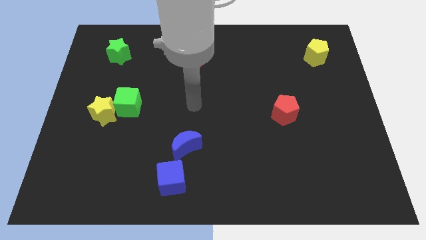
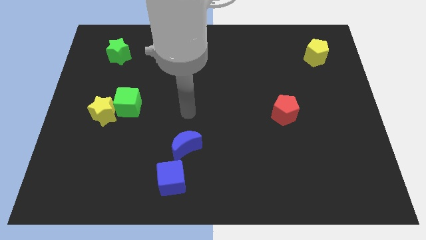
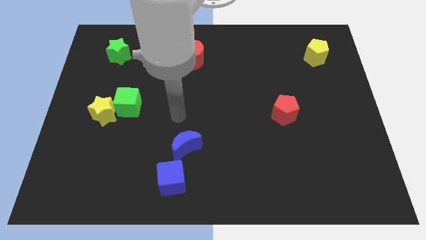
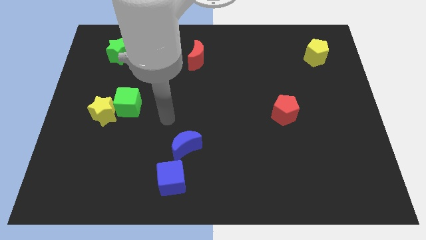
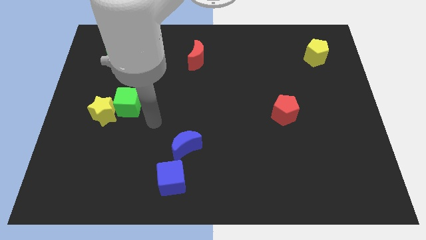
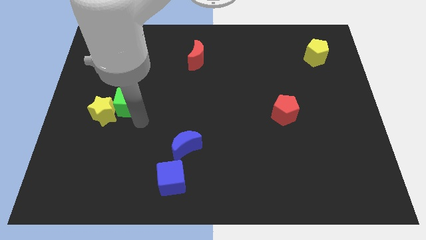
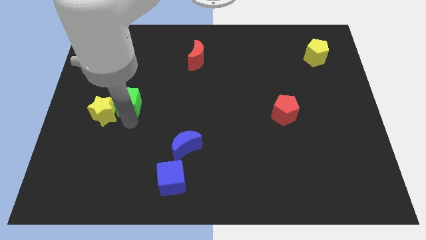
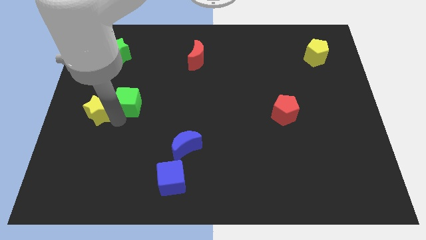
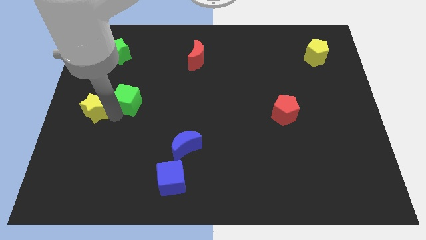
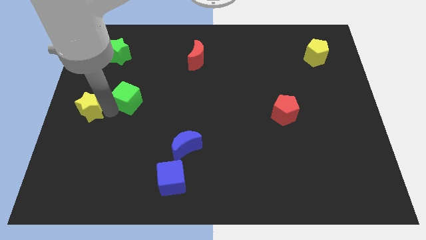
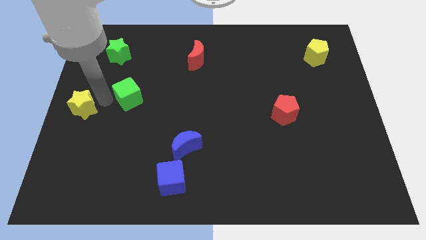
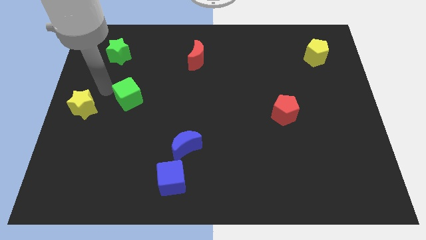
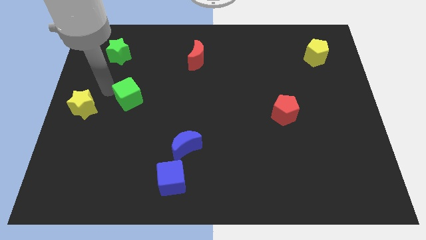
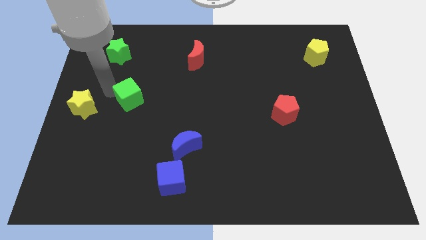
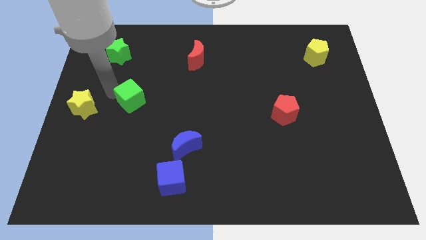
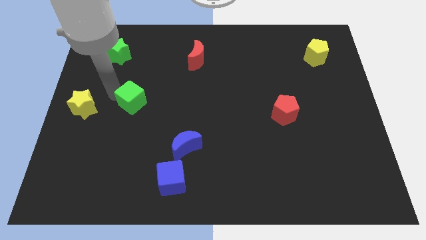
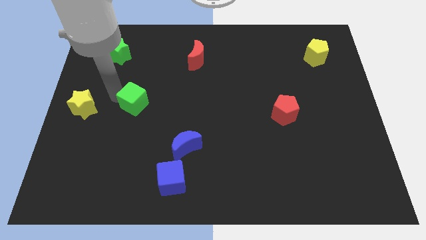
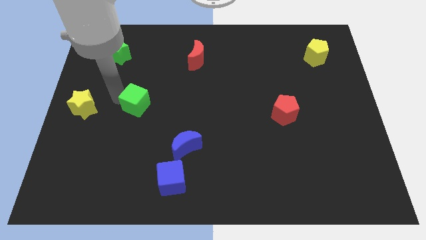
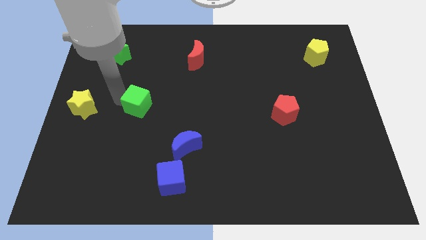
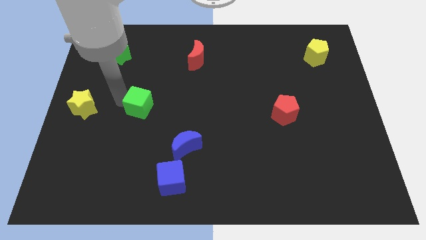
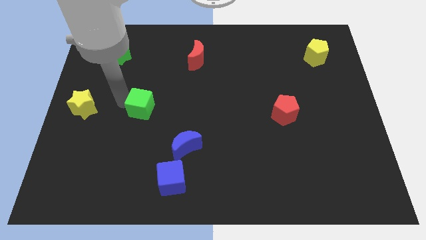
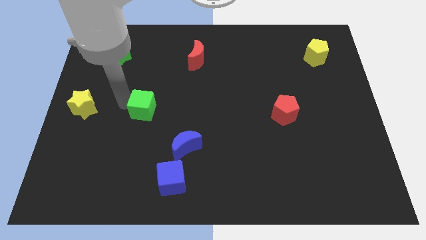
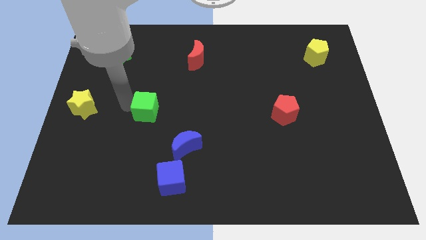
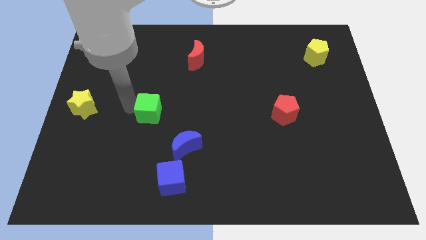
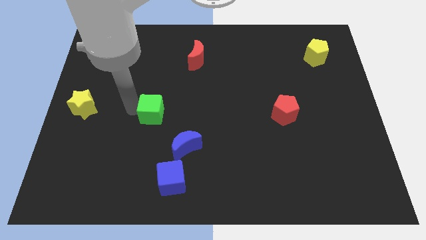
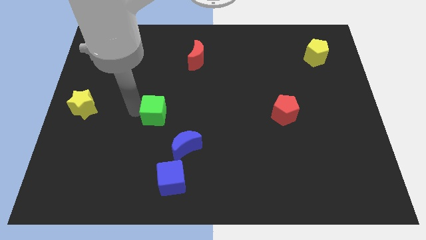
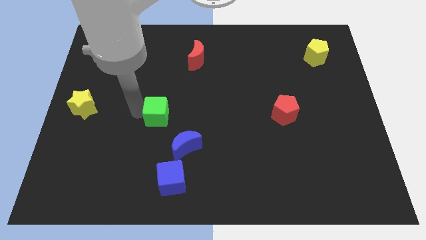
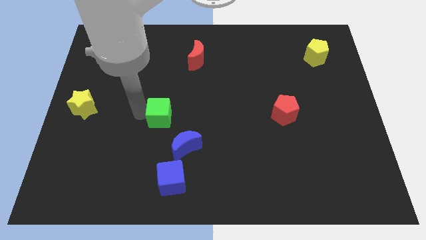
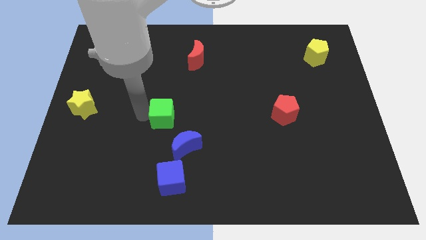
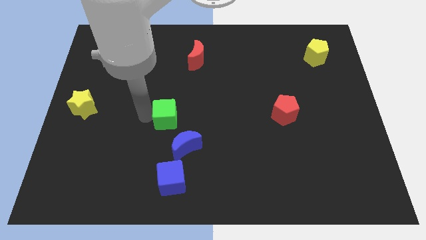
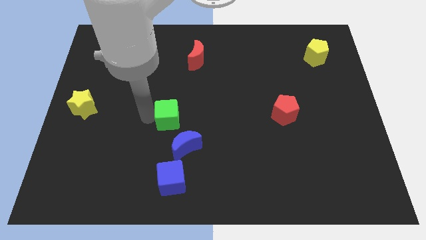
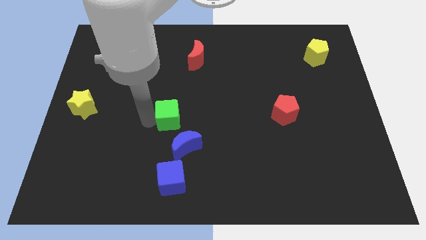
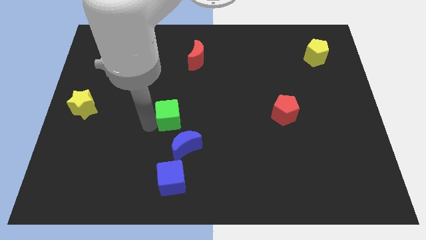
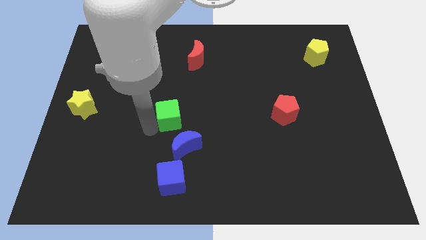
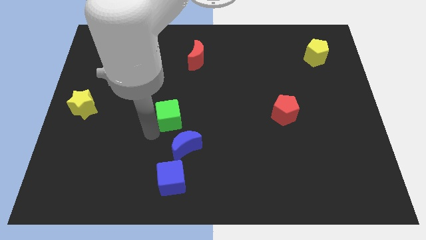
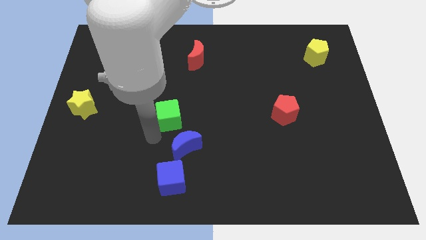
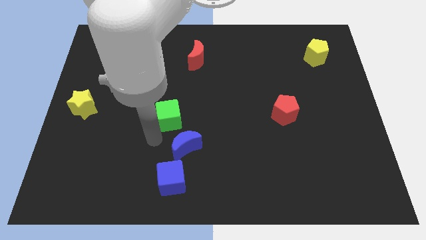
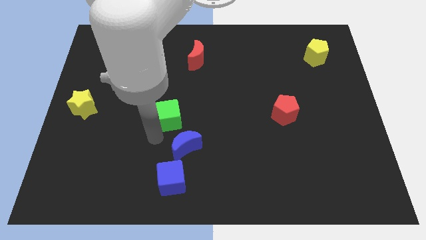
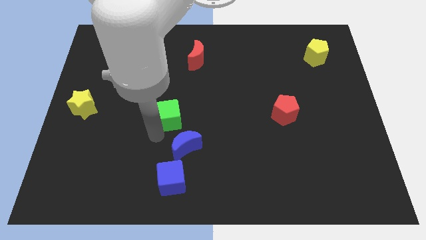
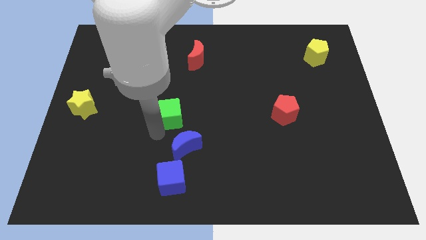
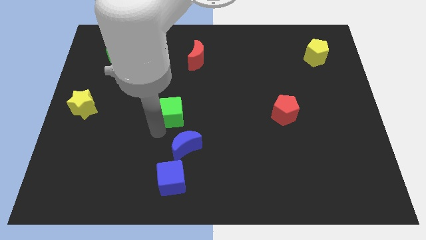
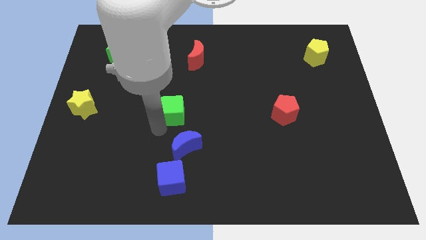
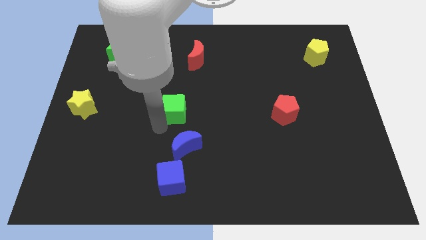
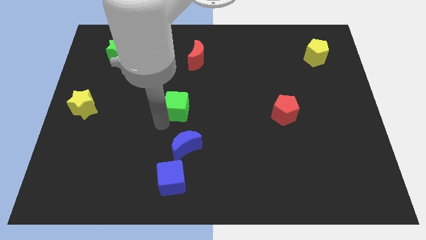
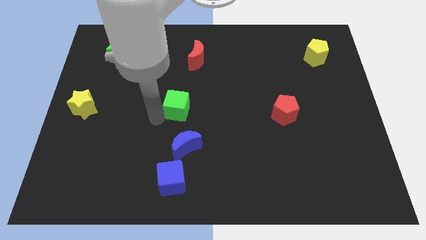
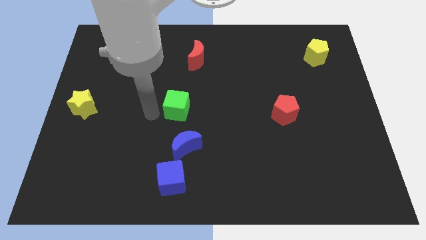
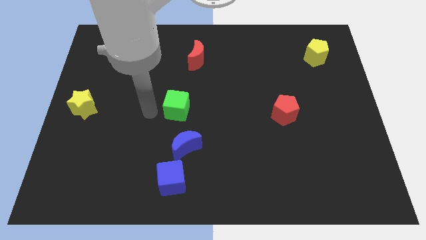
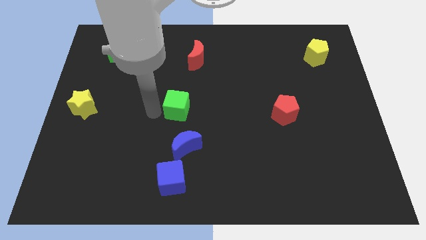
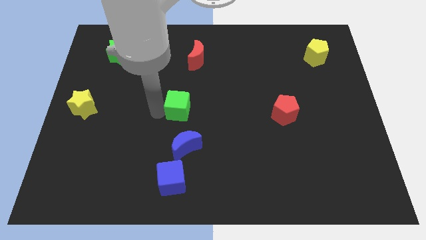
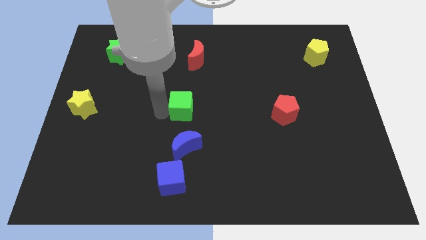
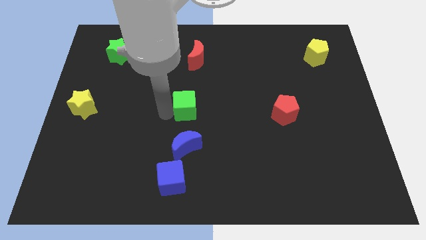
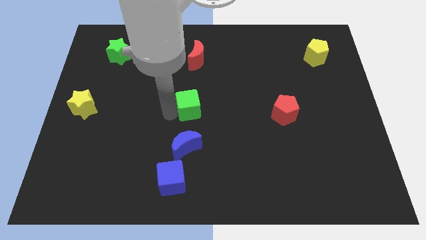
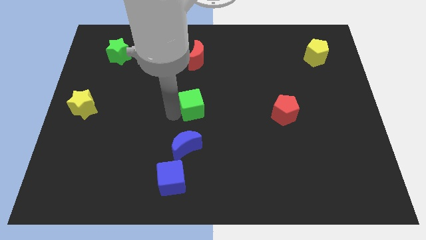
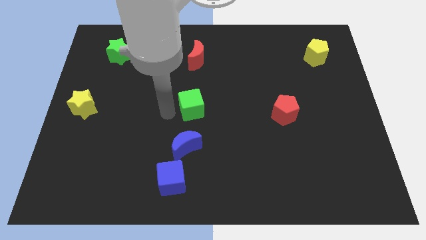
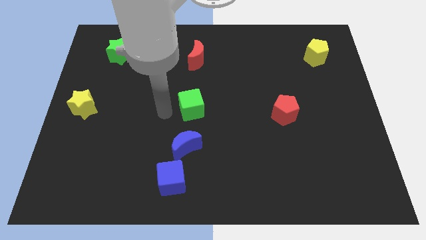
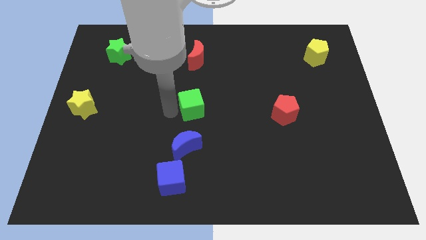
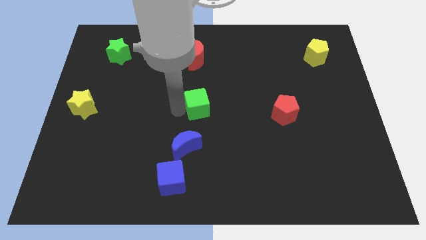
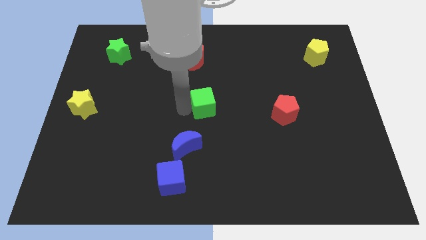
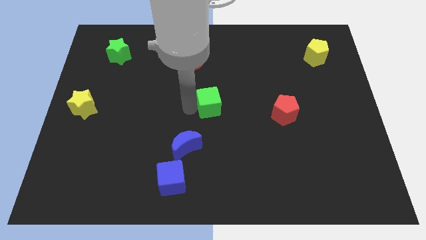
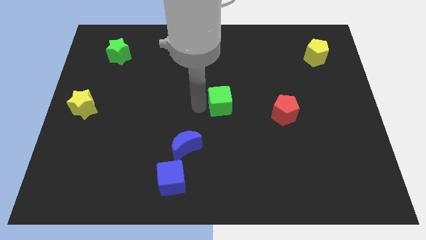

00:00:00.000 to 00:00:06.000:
move the green cube to the right

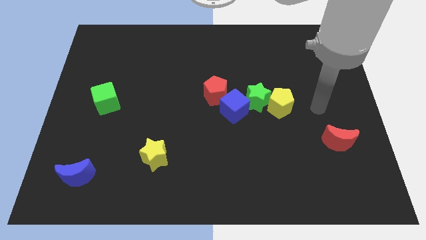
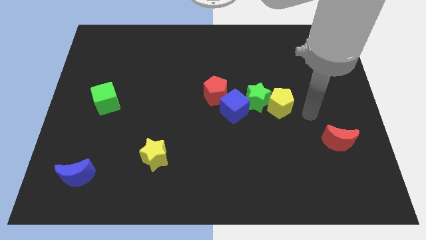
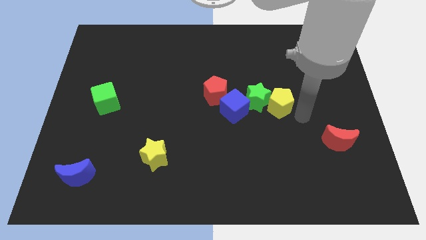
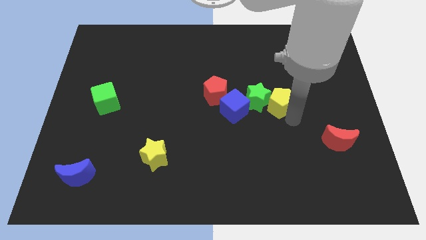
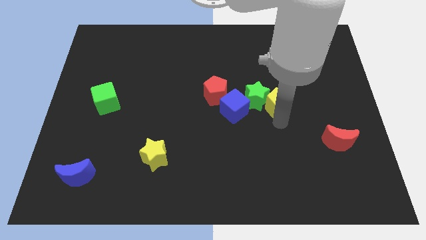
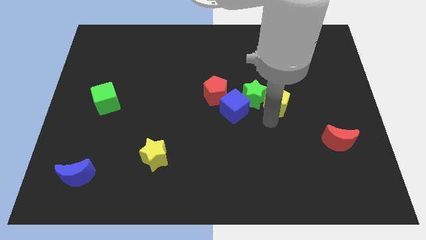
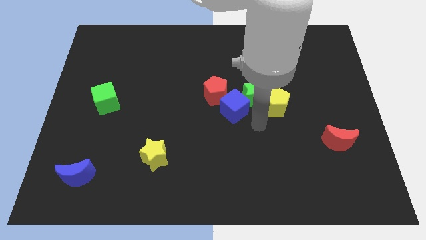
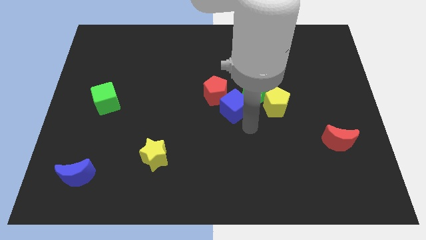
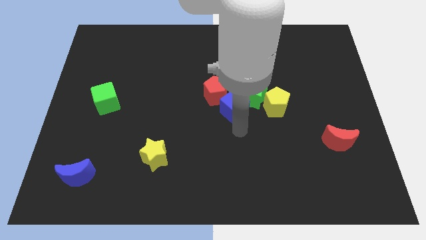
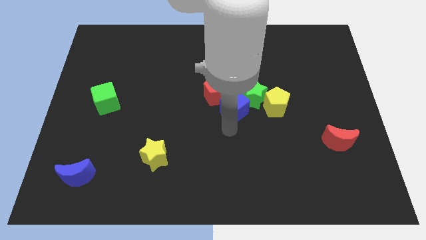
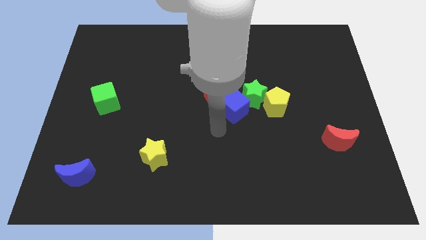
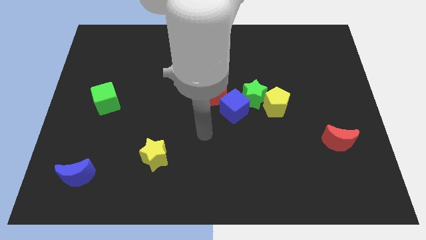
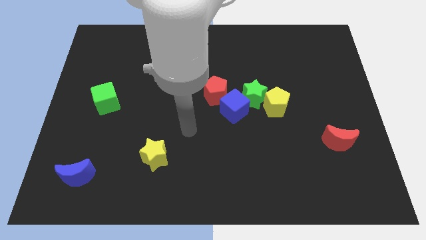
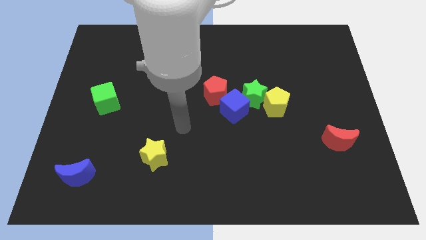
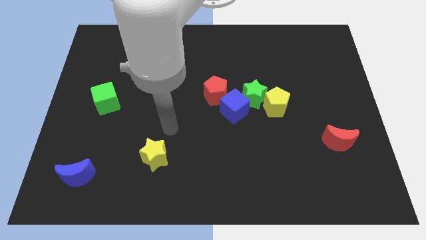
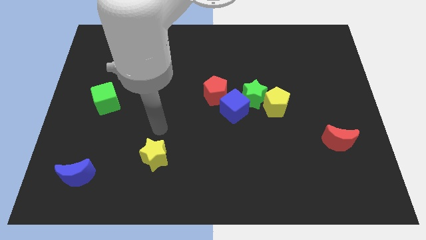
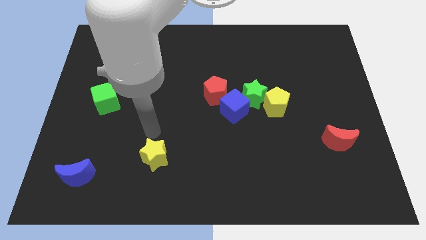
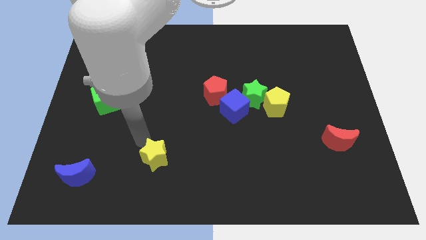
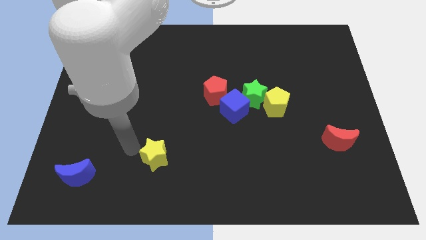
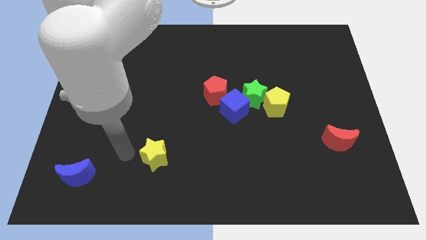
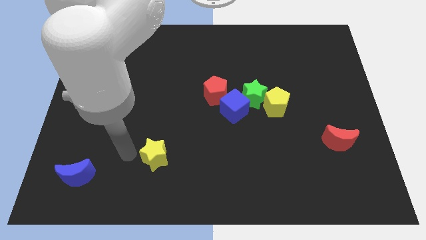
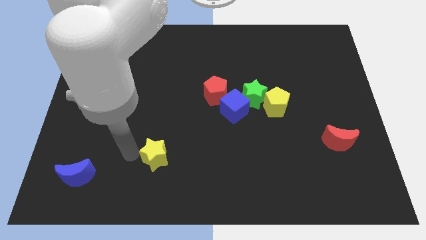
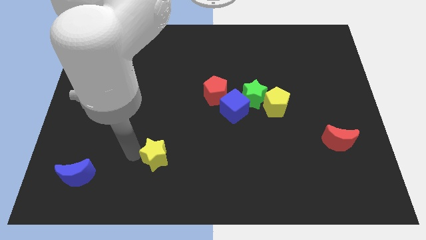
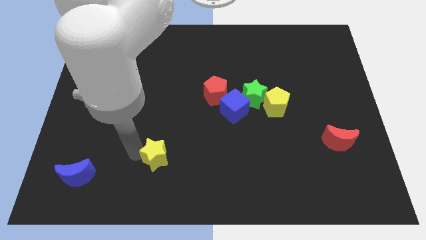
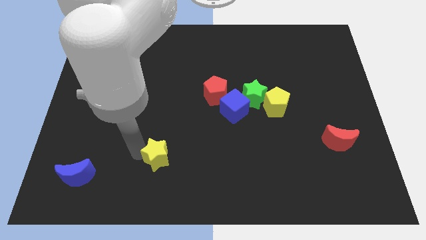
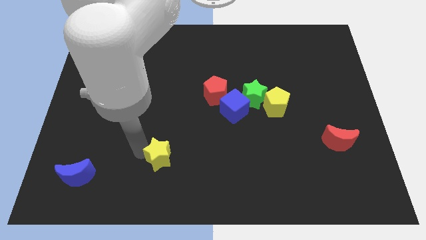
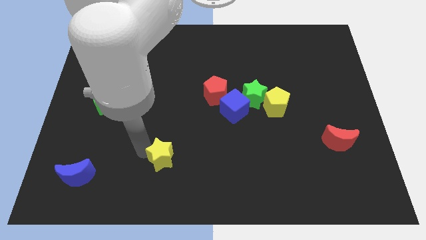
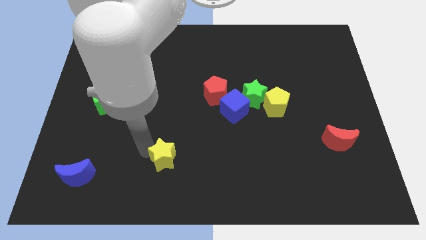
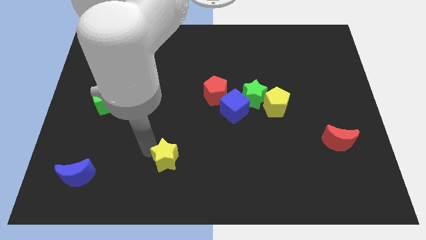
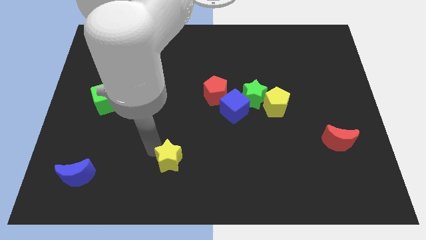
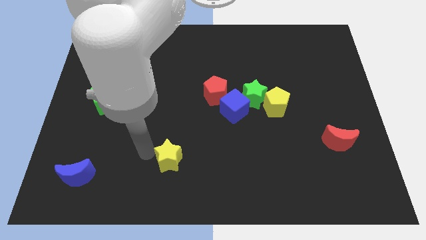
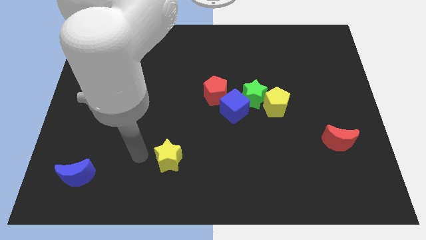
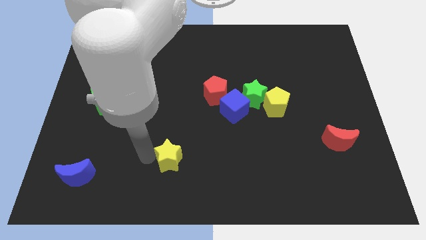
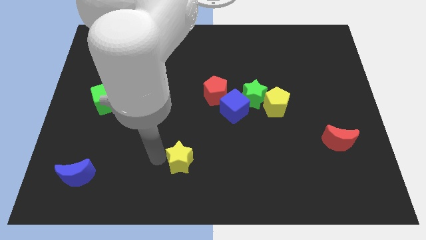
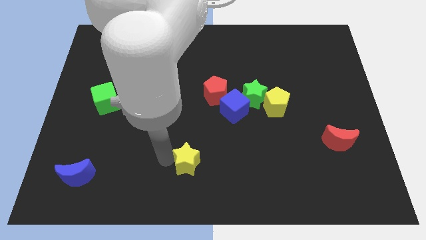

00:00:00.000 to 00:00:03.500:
push the yellow star slightly to the right
